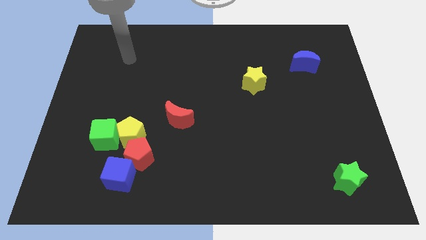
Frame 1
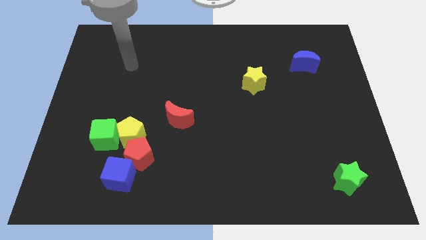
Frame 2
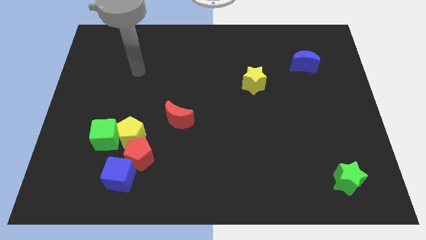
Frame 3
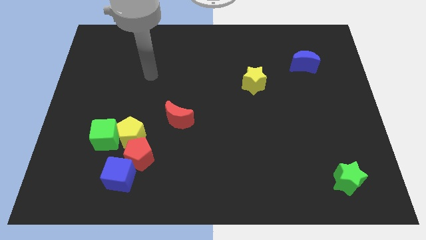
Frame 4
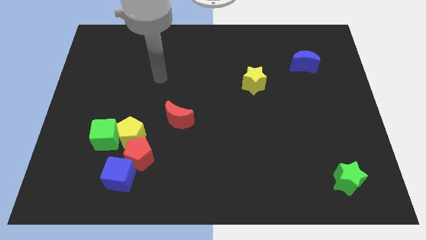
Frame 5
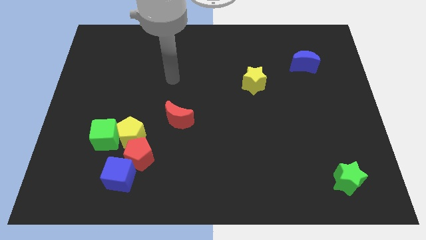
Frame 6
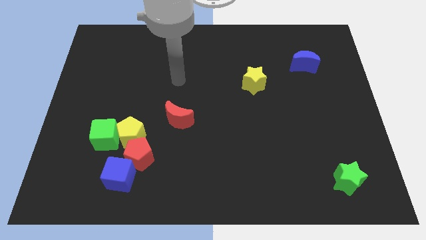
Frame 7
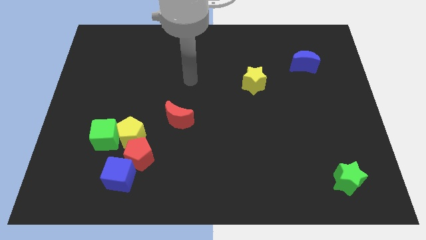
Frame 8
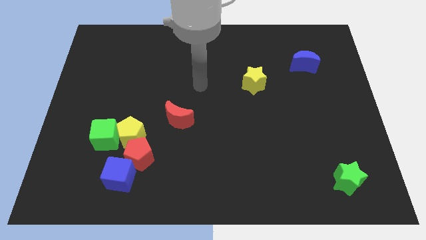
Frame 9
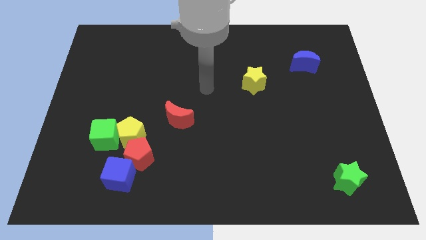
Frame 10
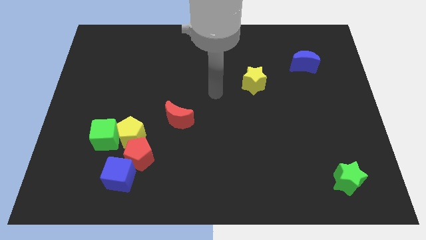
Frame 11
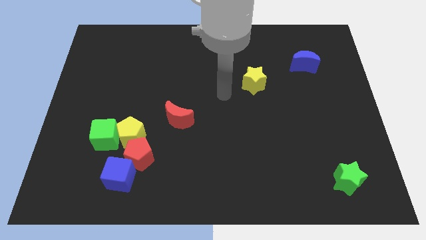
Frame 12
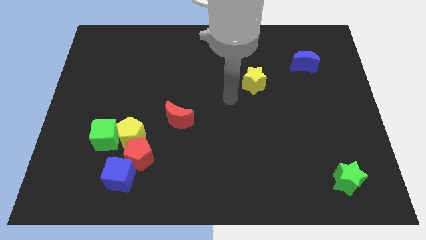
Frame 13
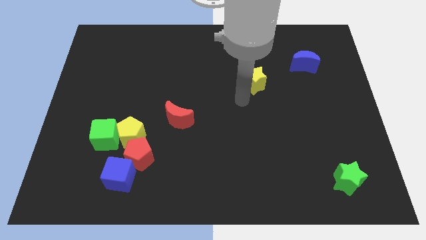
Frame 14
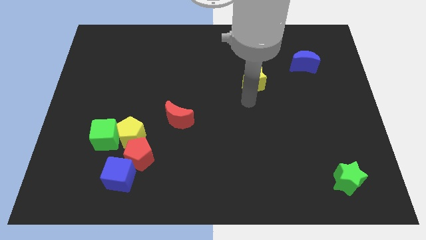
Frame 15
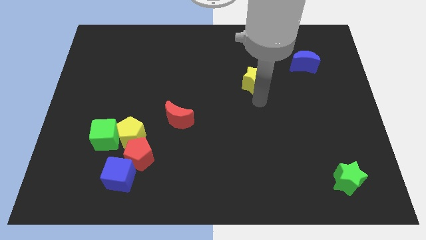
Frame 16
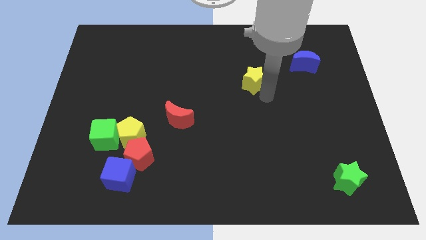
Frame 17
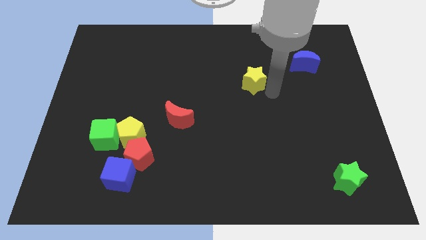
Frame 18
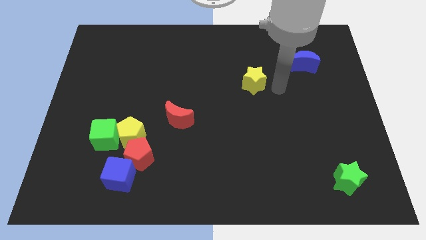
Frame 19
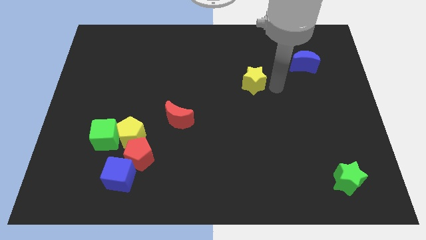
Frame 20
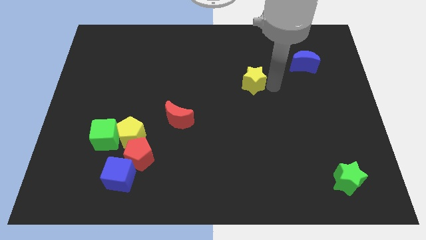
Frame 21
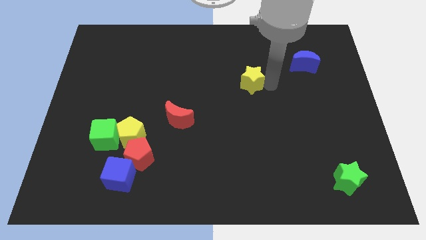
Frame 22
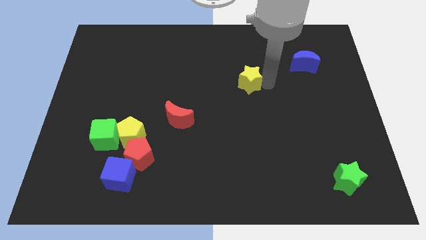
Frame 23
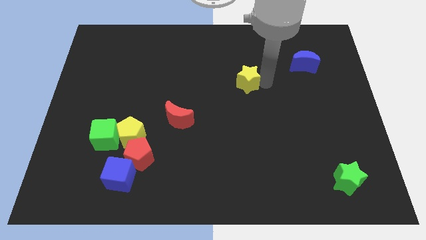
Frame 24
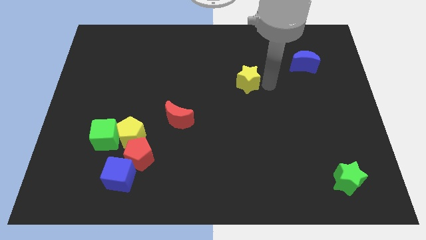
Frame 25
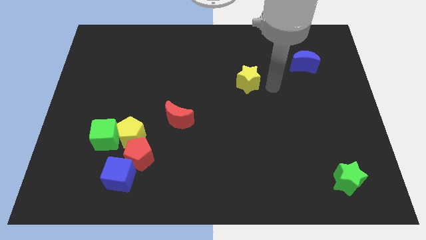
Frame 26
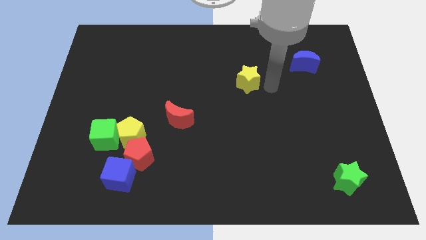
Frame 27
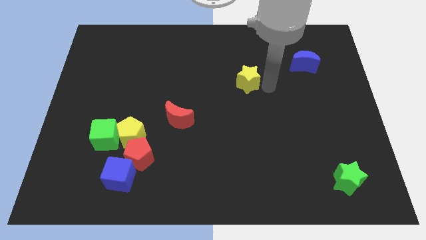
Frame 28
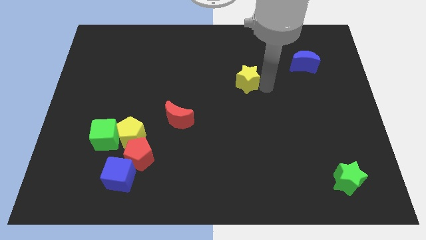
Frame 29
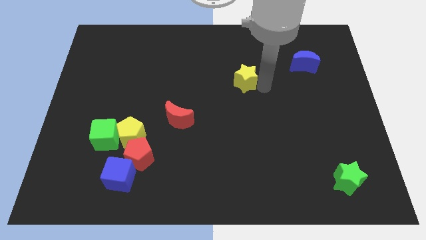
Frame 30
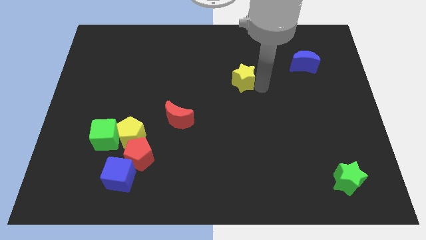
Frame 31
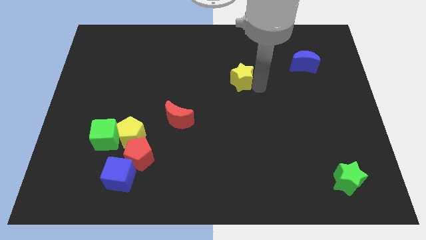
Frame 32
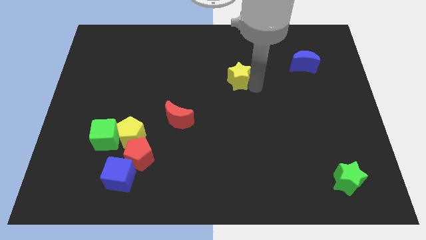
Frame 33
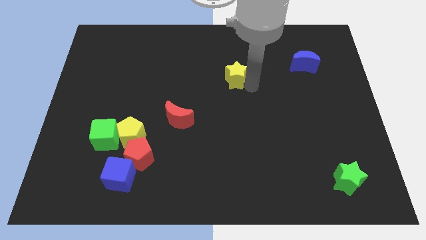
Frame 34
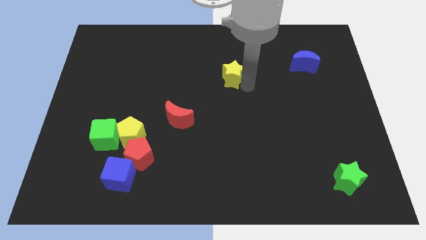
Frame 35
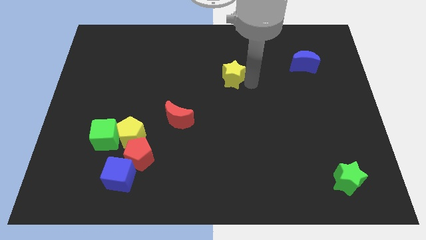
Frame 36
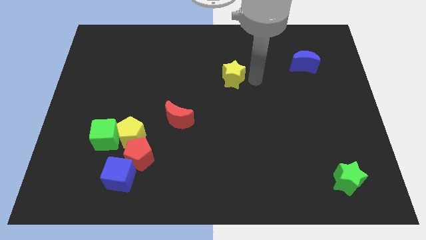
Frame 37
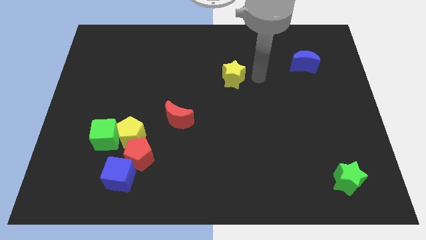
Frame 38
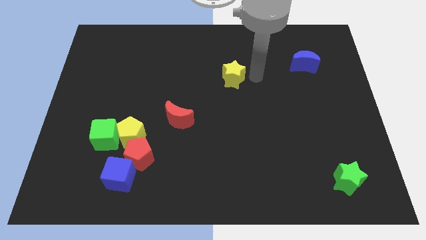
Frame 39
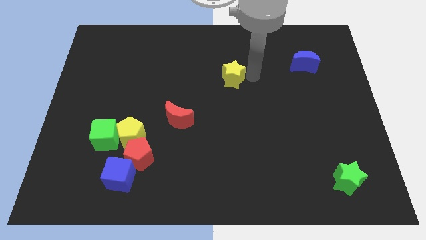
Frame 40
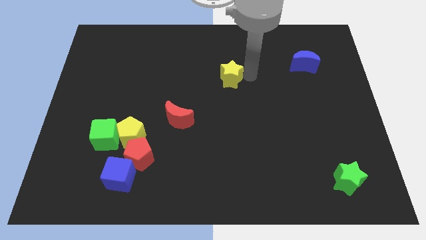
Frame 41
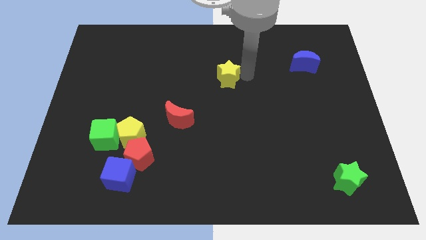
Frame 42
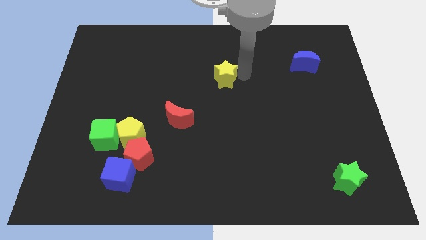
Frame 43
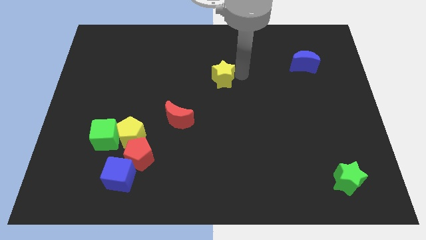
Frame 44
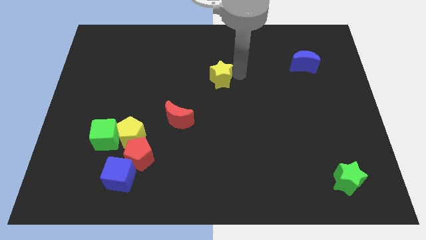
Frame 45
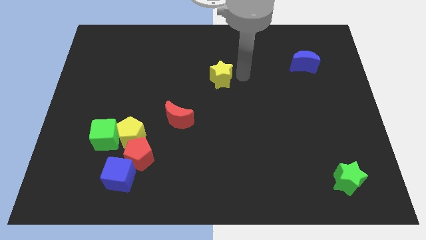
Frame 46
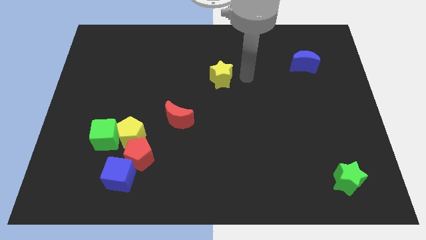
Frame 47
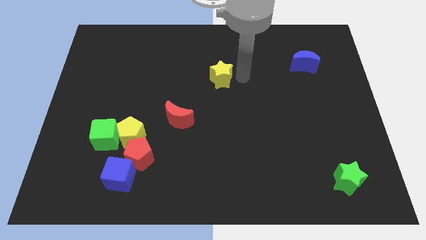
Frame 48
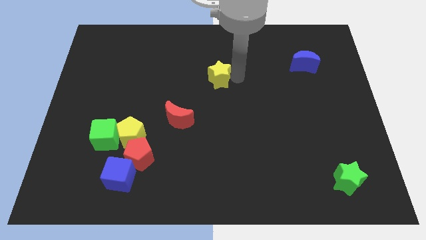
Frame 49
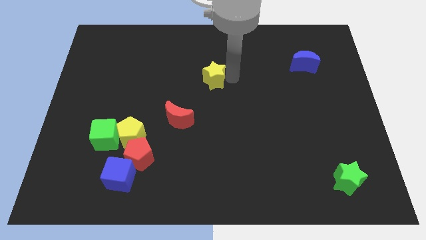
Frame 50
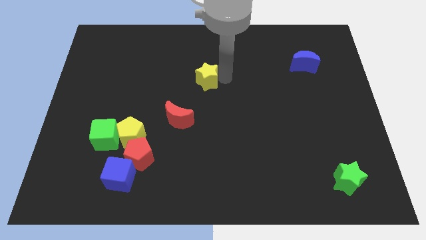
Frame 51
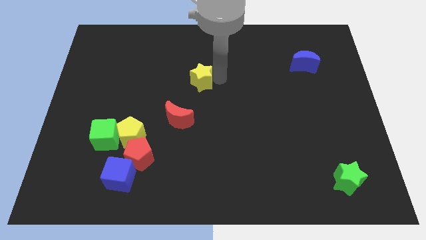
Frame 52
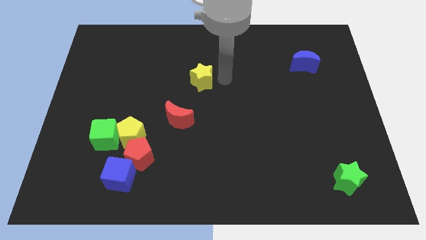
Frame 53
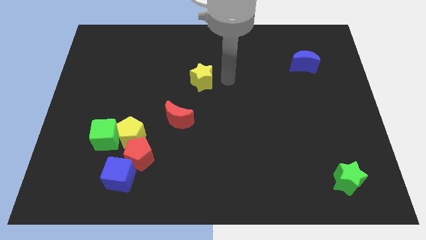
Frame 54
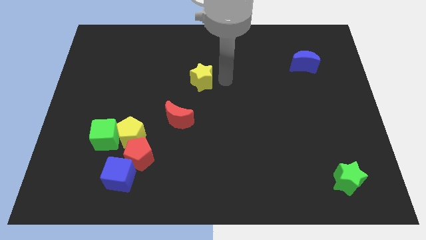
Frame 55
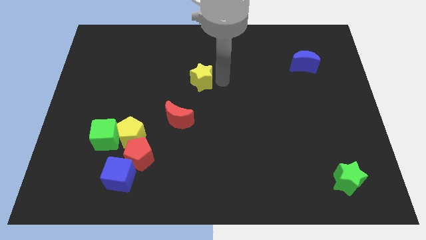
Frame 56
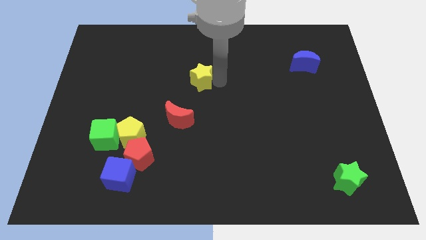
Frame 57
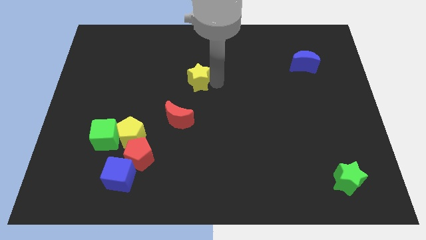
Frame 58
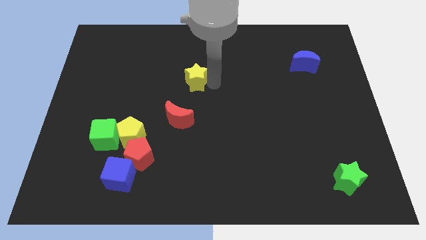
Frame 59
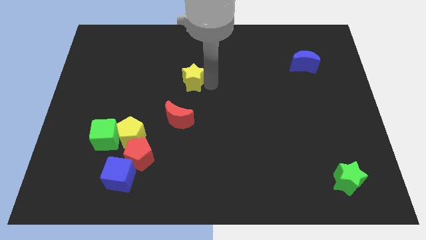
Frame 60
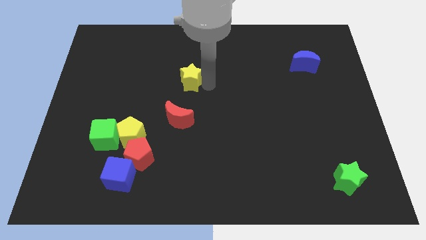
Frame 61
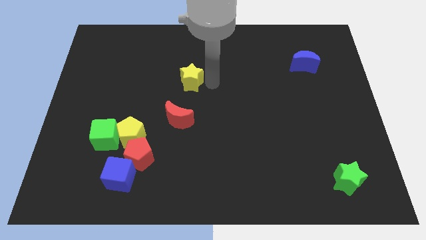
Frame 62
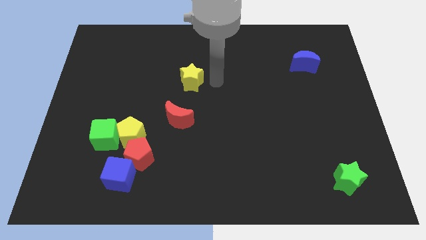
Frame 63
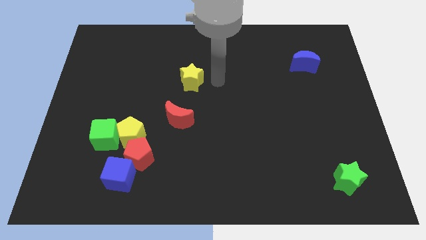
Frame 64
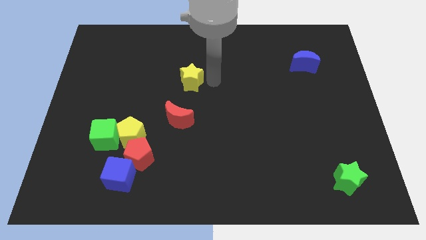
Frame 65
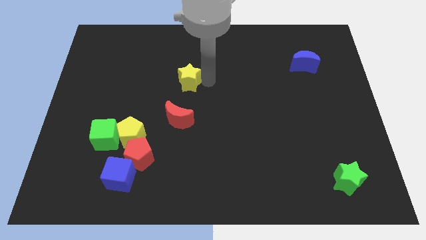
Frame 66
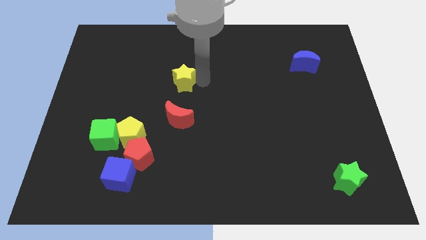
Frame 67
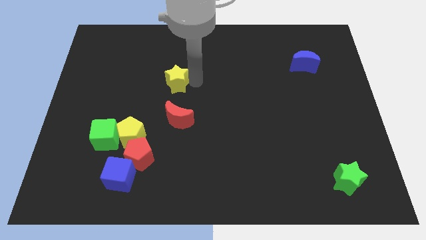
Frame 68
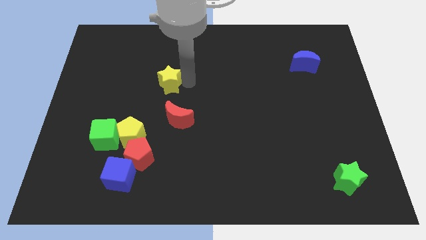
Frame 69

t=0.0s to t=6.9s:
push the yellow star to the left

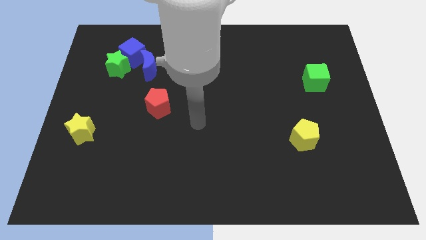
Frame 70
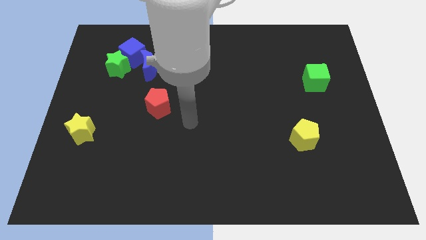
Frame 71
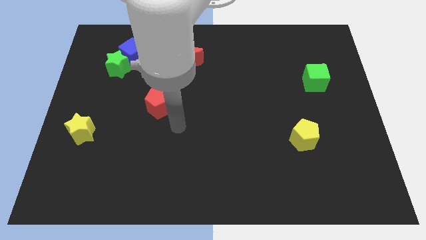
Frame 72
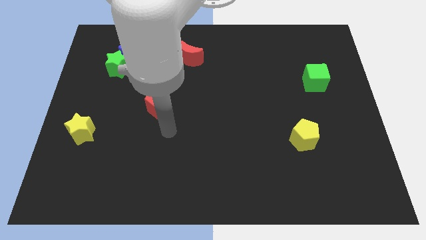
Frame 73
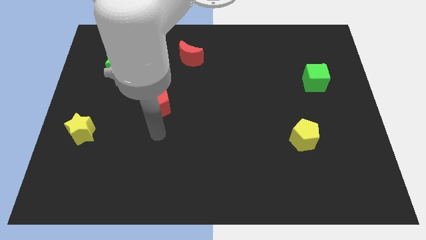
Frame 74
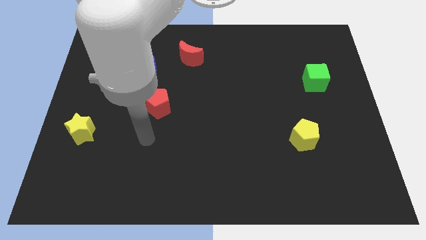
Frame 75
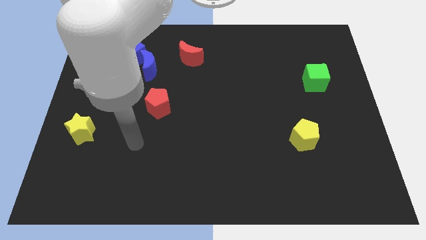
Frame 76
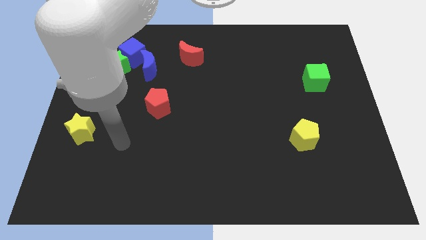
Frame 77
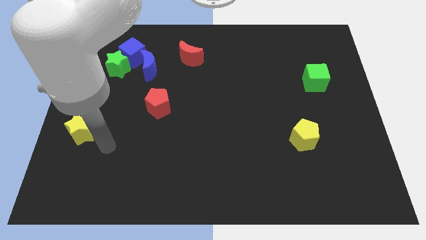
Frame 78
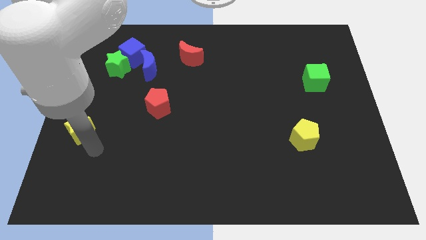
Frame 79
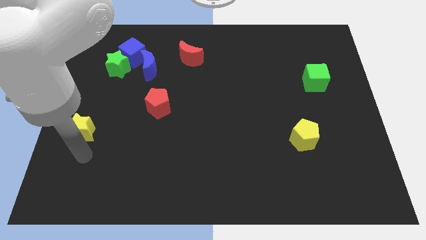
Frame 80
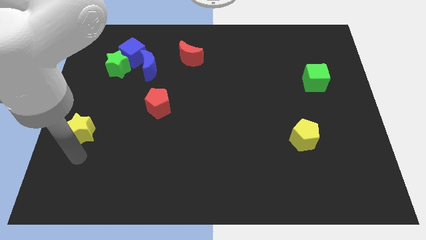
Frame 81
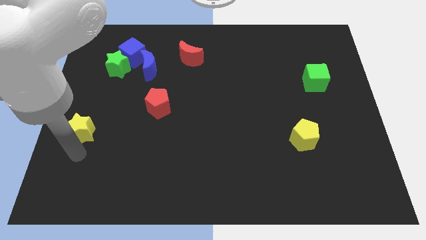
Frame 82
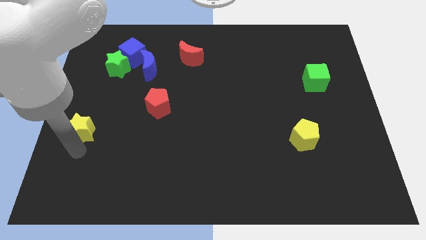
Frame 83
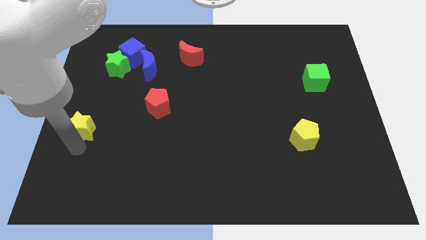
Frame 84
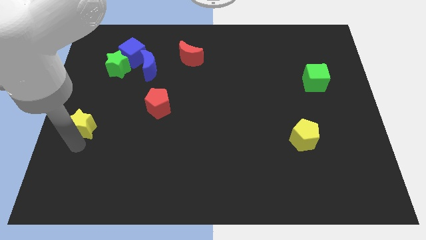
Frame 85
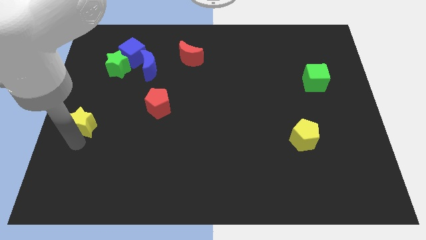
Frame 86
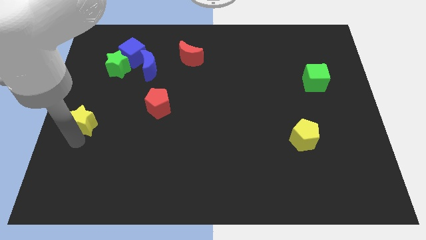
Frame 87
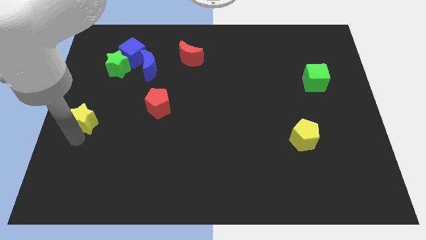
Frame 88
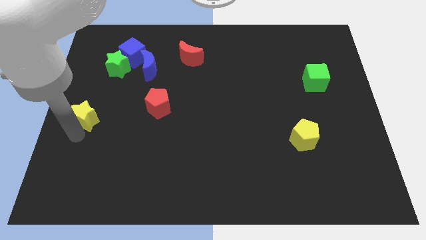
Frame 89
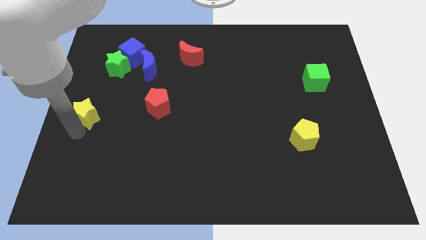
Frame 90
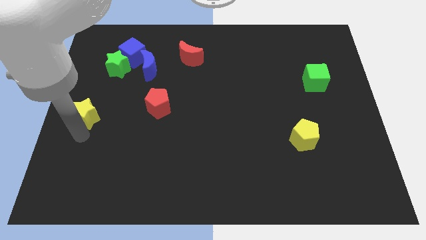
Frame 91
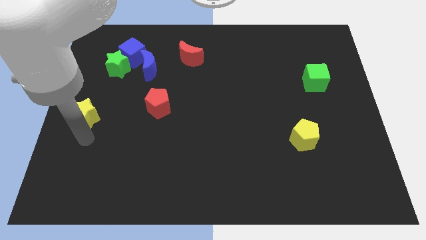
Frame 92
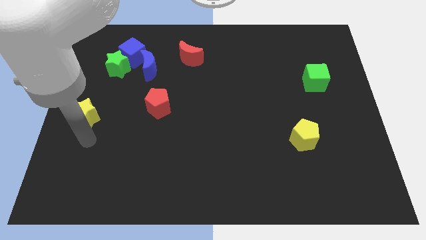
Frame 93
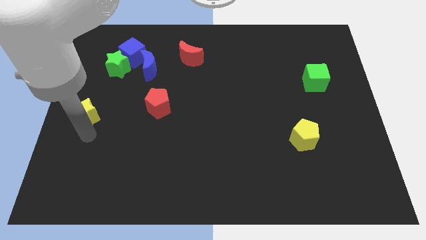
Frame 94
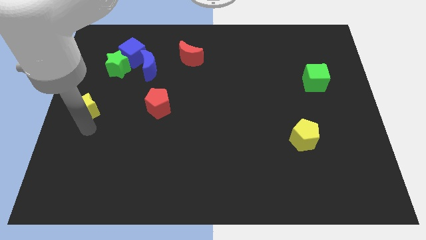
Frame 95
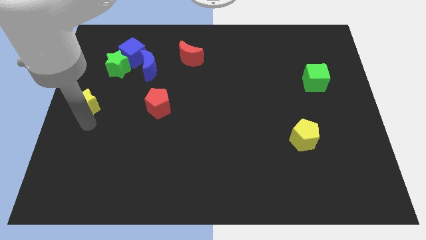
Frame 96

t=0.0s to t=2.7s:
slide the yellow star upwards a little
